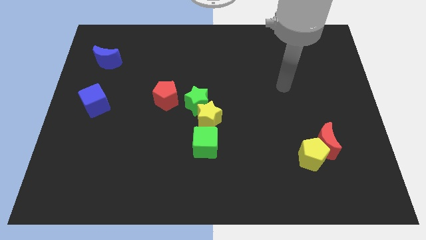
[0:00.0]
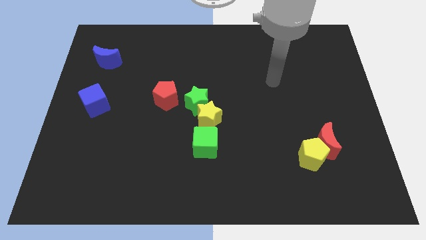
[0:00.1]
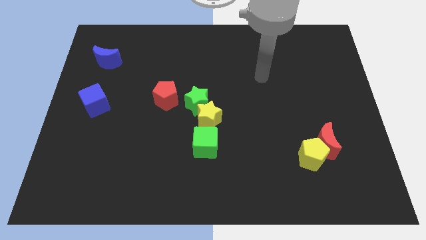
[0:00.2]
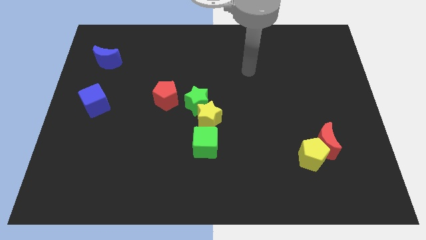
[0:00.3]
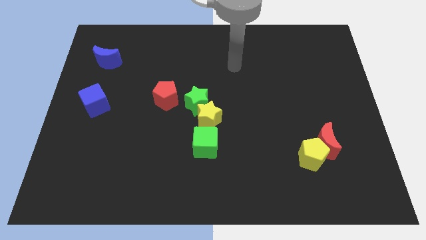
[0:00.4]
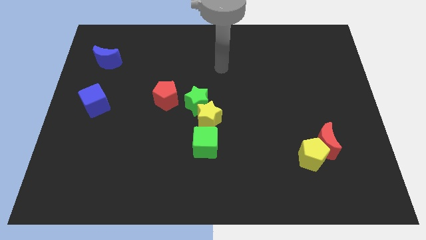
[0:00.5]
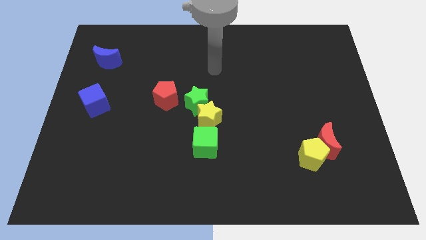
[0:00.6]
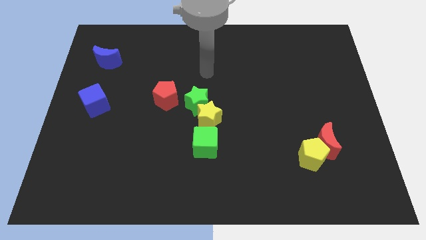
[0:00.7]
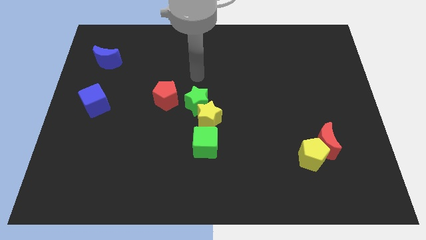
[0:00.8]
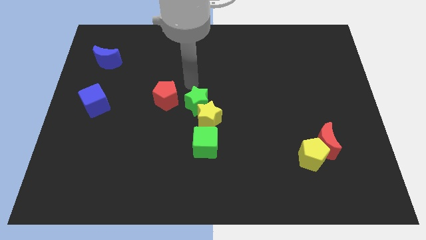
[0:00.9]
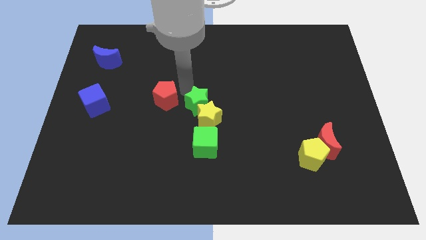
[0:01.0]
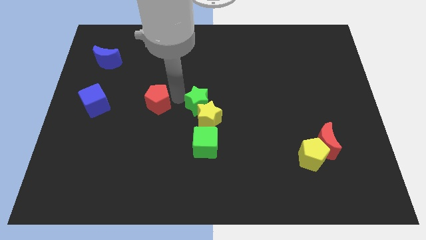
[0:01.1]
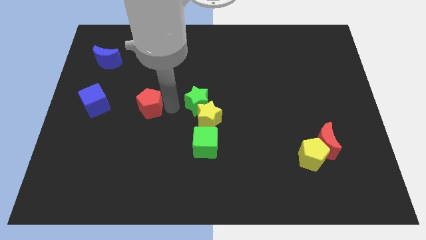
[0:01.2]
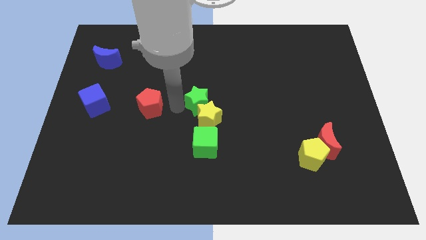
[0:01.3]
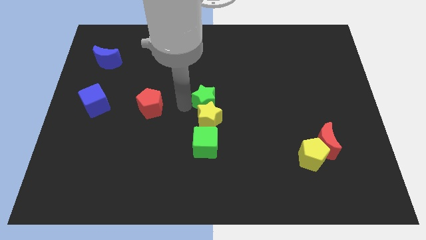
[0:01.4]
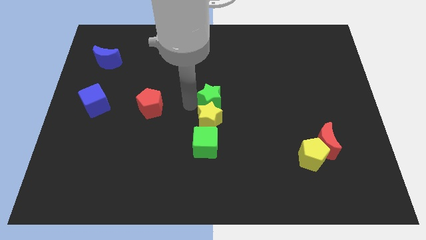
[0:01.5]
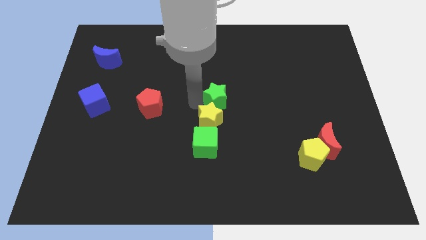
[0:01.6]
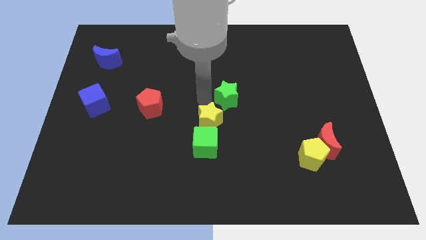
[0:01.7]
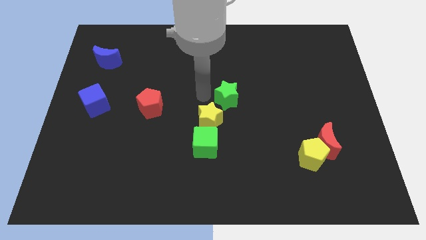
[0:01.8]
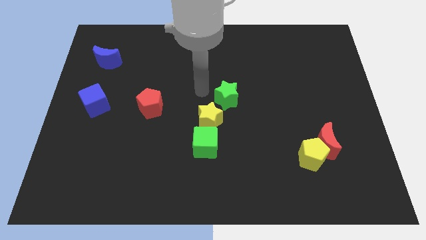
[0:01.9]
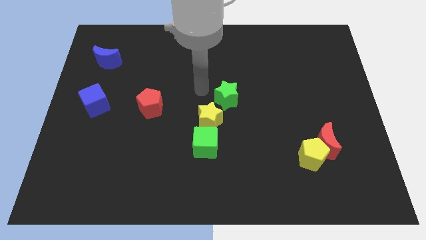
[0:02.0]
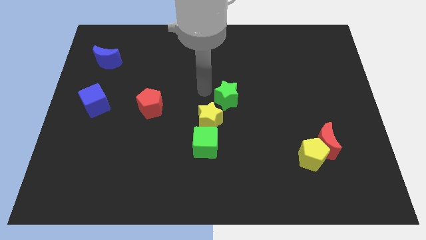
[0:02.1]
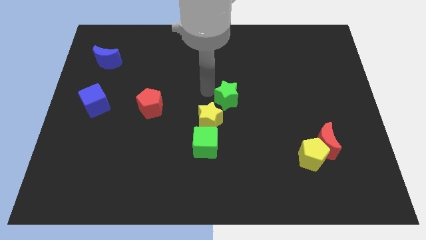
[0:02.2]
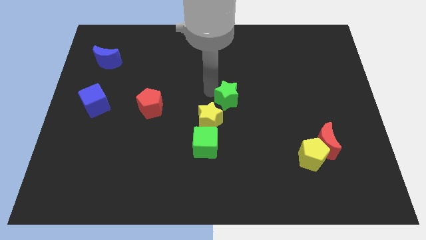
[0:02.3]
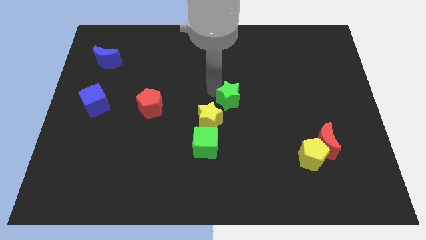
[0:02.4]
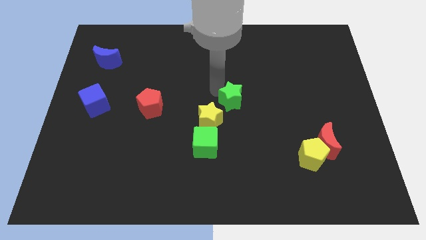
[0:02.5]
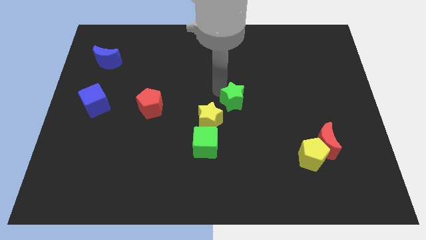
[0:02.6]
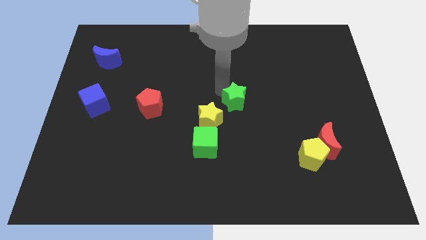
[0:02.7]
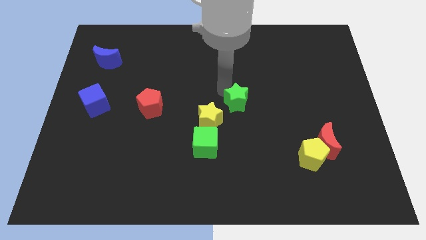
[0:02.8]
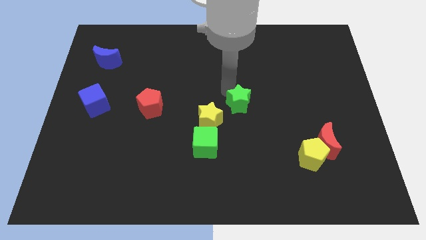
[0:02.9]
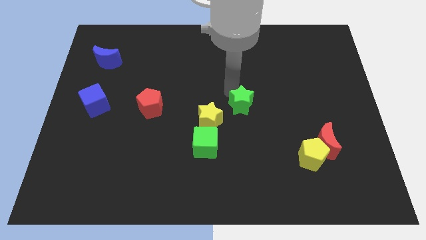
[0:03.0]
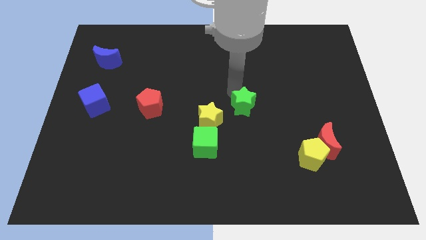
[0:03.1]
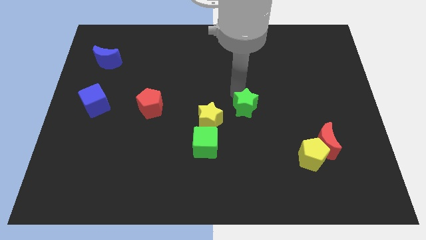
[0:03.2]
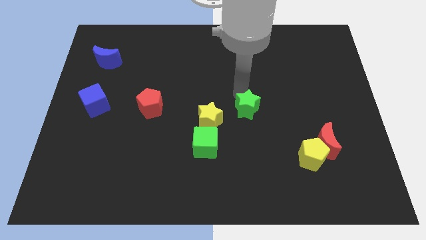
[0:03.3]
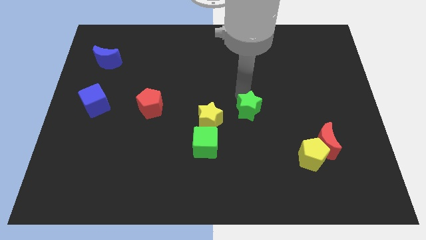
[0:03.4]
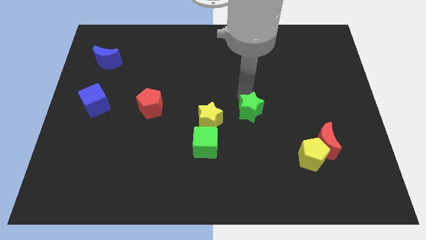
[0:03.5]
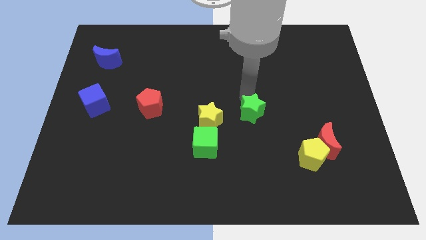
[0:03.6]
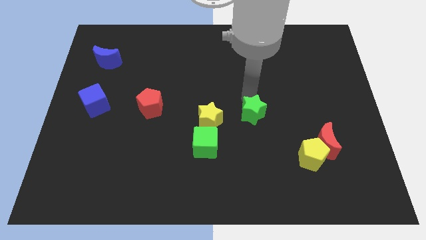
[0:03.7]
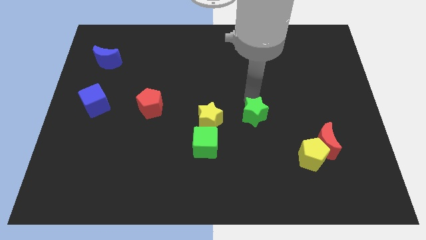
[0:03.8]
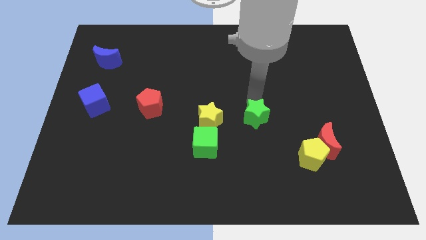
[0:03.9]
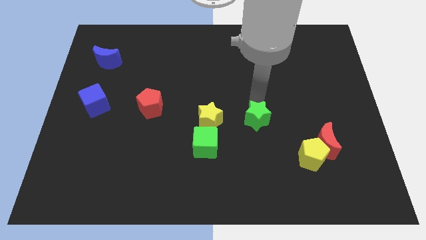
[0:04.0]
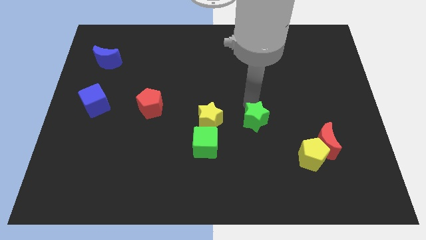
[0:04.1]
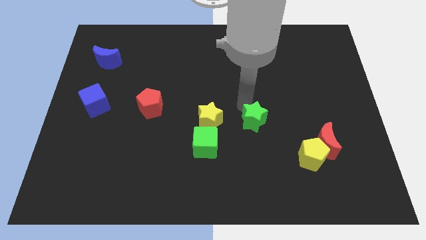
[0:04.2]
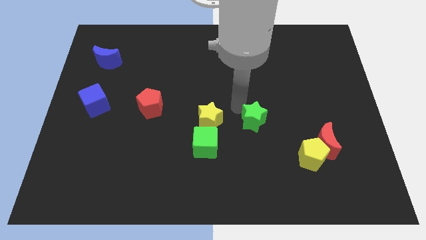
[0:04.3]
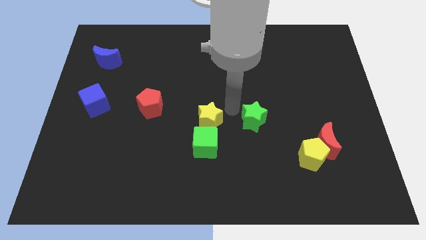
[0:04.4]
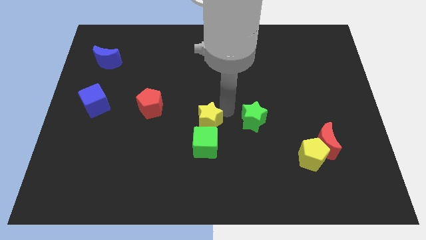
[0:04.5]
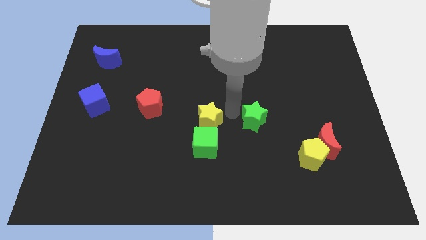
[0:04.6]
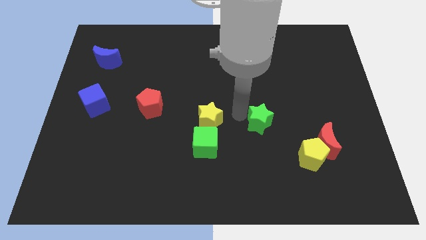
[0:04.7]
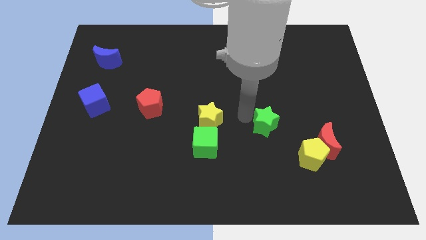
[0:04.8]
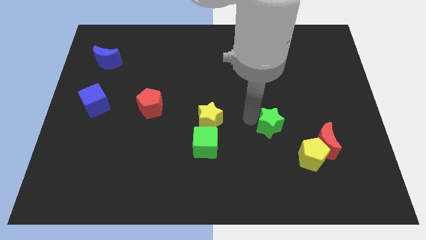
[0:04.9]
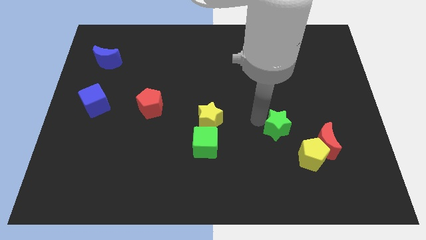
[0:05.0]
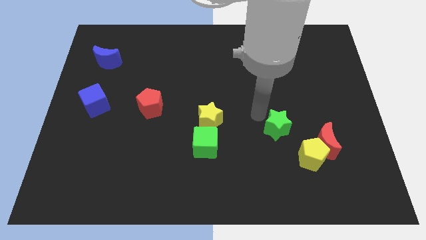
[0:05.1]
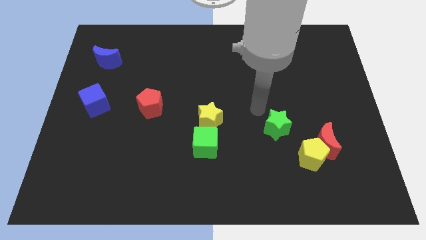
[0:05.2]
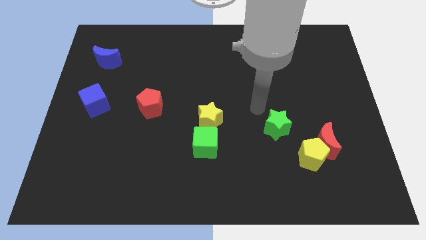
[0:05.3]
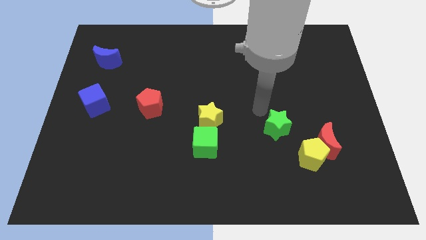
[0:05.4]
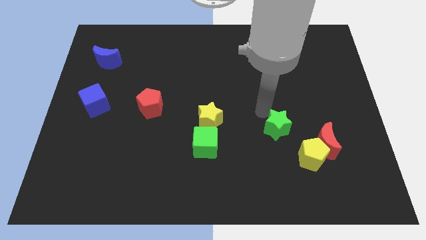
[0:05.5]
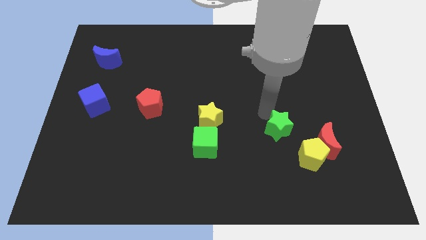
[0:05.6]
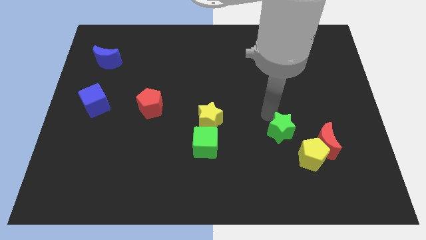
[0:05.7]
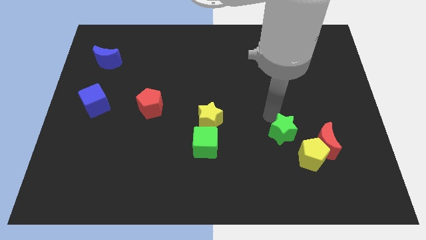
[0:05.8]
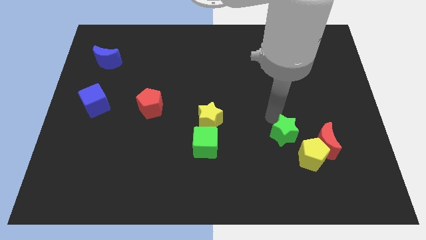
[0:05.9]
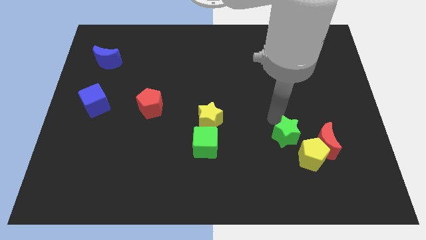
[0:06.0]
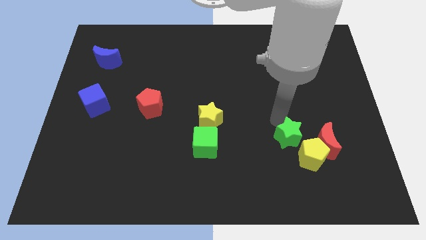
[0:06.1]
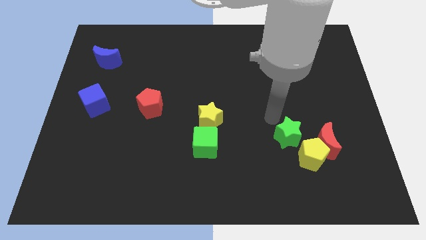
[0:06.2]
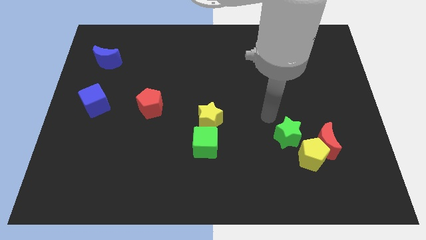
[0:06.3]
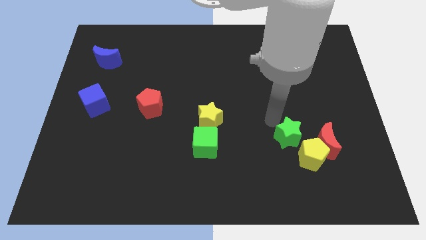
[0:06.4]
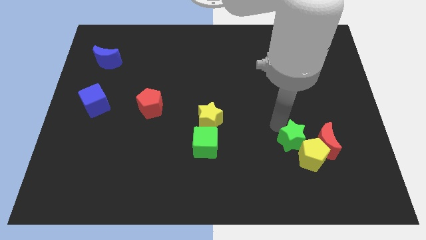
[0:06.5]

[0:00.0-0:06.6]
slide the green star close to the yellow pentagon
